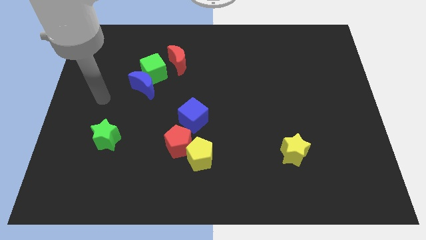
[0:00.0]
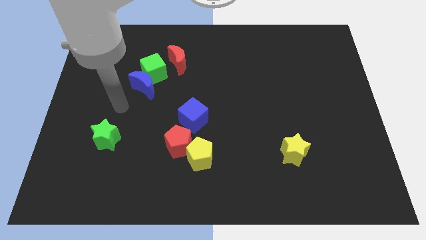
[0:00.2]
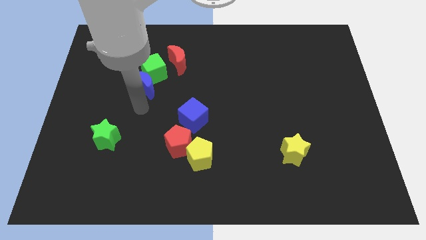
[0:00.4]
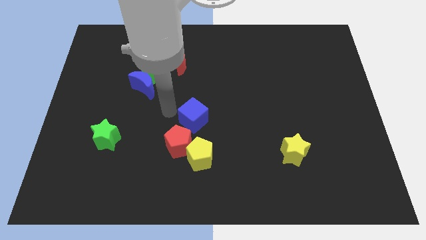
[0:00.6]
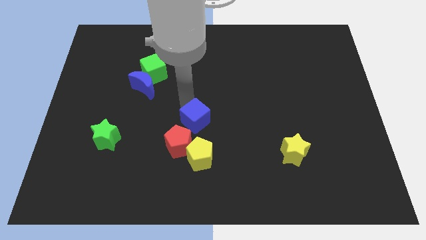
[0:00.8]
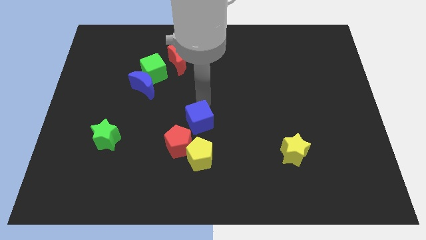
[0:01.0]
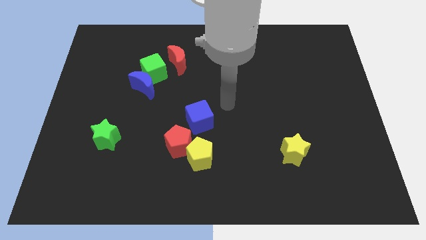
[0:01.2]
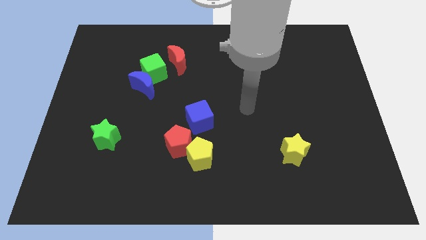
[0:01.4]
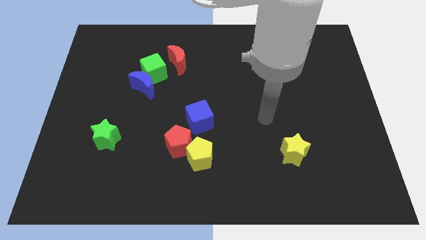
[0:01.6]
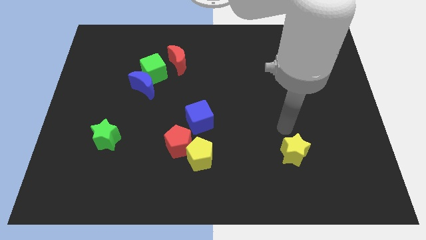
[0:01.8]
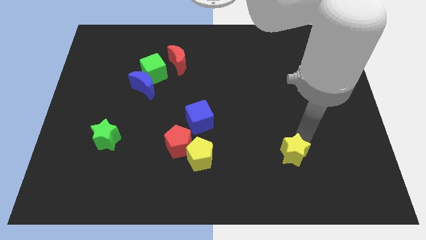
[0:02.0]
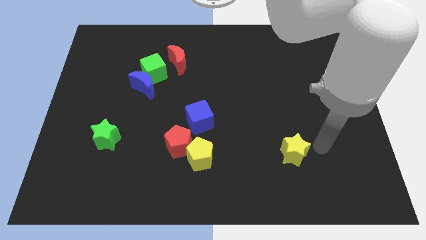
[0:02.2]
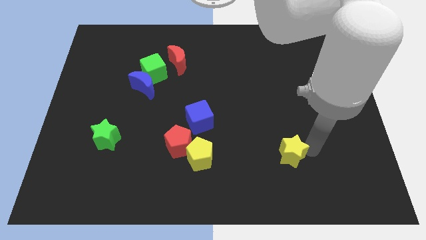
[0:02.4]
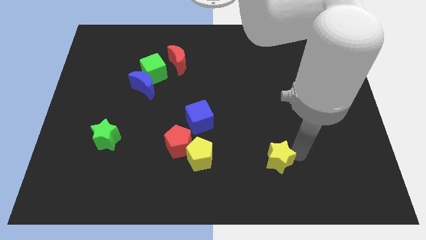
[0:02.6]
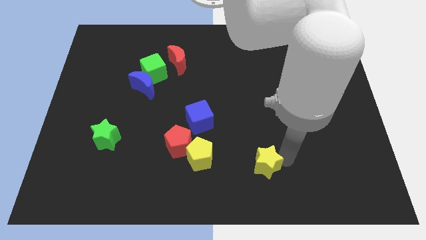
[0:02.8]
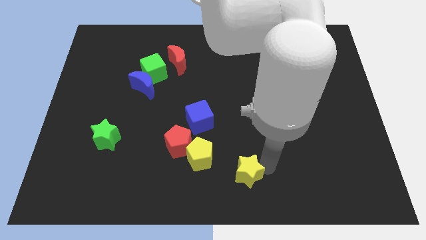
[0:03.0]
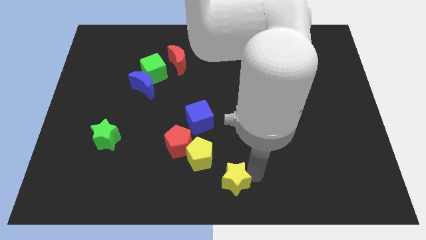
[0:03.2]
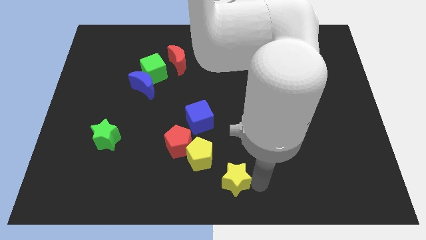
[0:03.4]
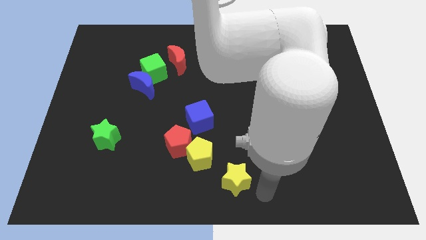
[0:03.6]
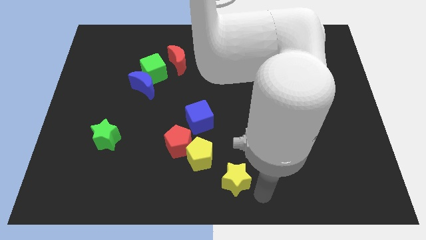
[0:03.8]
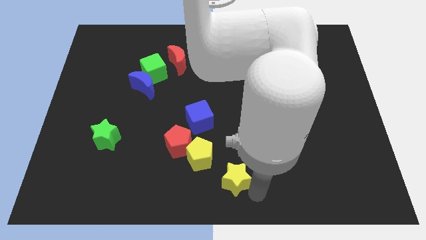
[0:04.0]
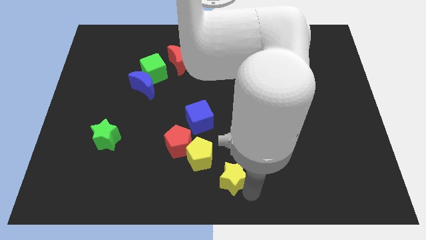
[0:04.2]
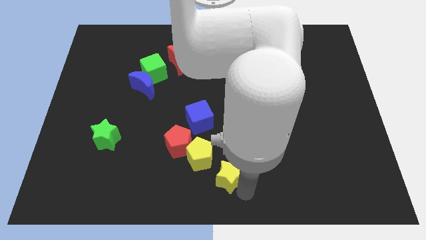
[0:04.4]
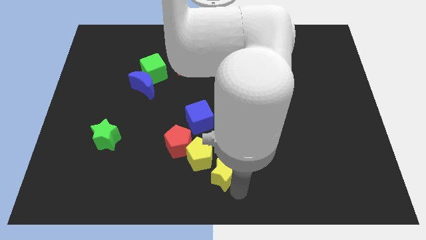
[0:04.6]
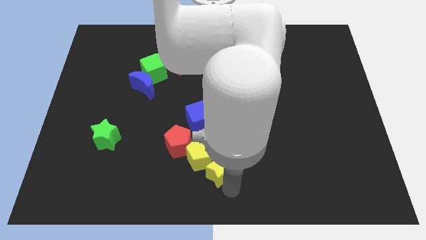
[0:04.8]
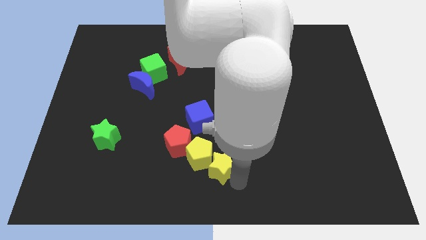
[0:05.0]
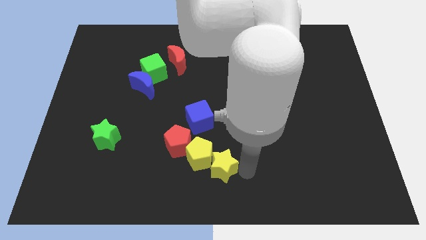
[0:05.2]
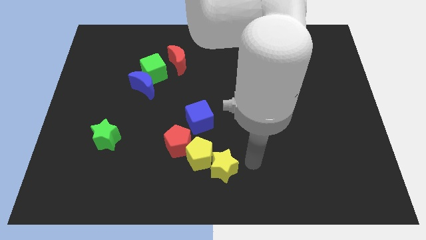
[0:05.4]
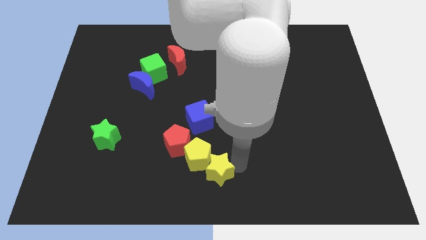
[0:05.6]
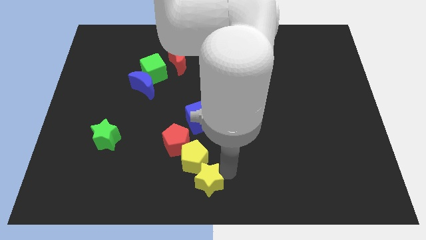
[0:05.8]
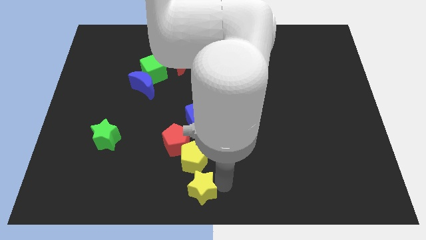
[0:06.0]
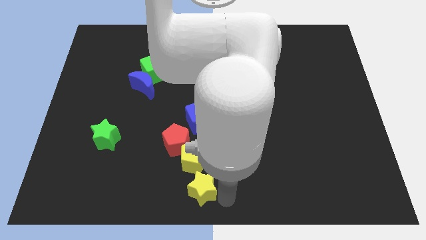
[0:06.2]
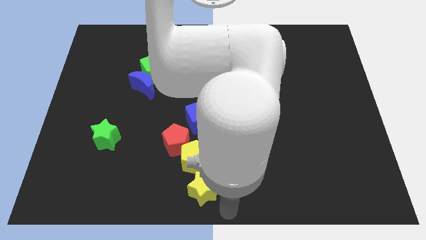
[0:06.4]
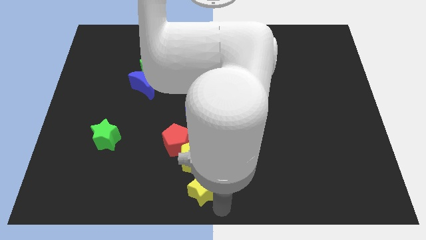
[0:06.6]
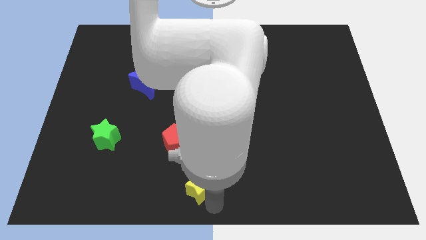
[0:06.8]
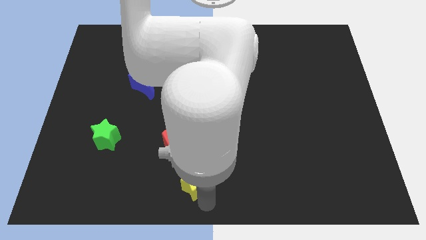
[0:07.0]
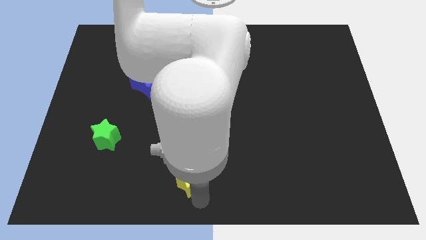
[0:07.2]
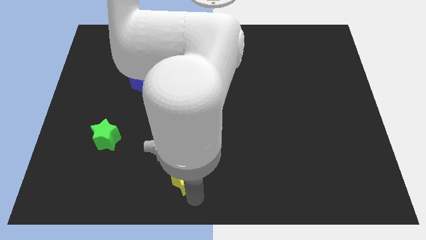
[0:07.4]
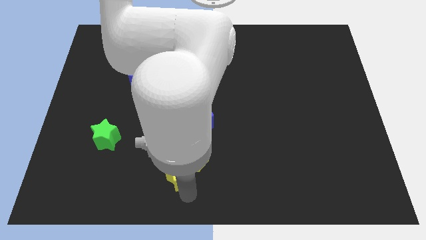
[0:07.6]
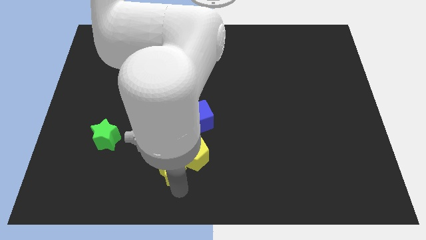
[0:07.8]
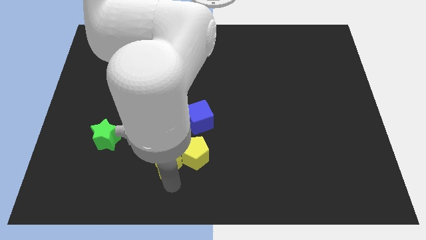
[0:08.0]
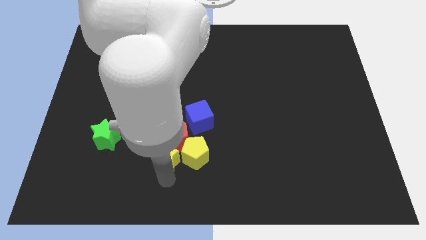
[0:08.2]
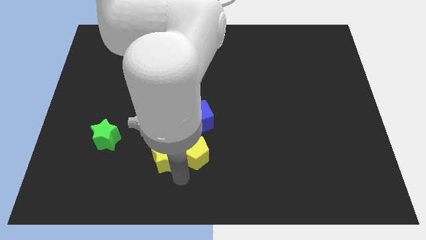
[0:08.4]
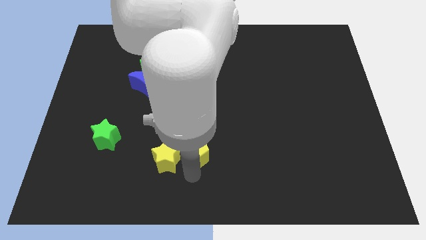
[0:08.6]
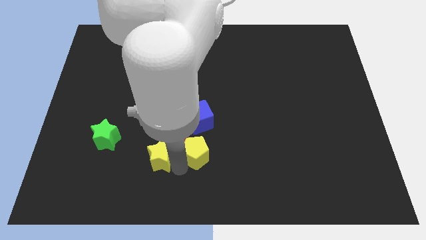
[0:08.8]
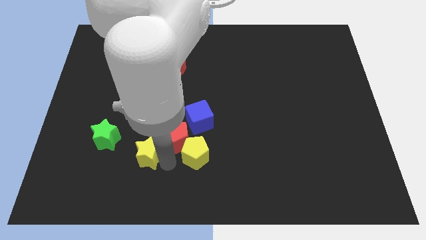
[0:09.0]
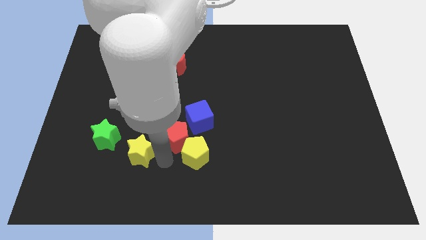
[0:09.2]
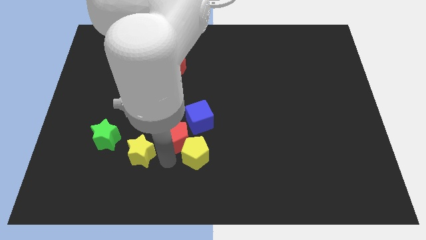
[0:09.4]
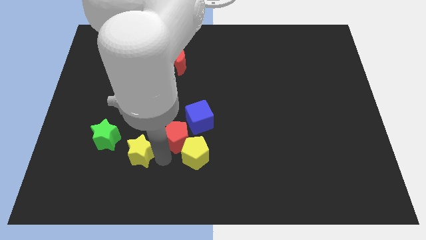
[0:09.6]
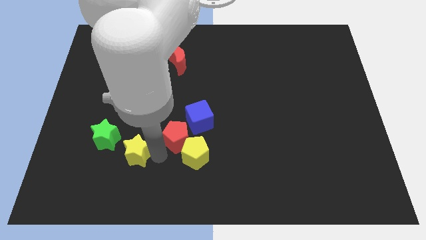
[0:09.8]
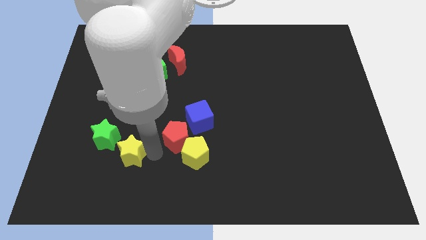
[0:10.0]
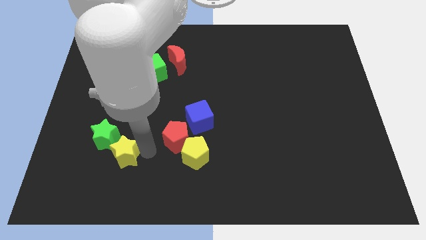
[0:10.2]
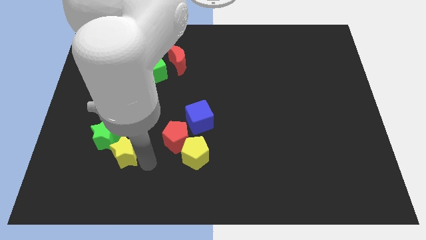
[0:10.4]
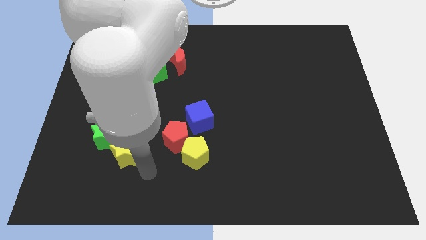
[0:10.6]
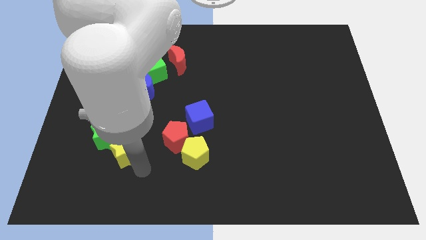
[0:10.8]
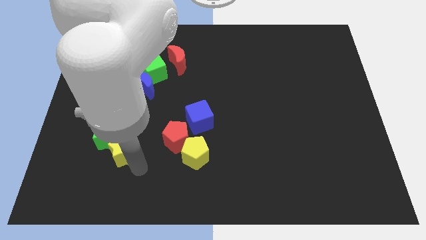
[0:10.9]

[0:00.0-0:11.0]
slide the yellow star to the green star

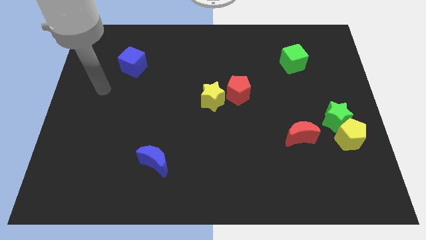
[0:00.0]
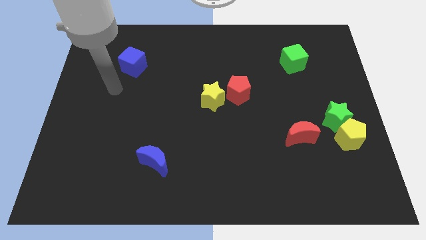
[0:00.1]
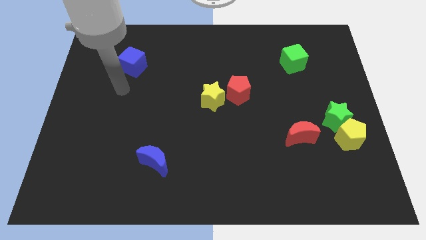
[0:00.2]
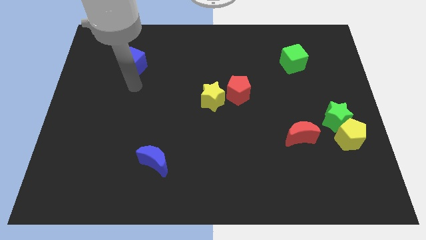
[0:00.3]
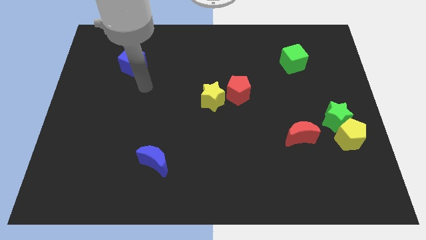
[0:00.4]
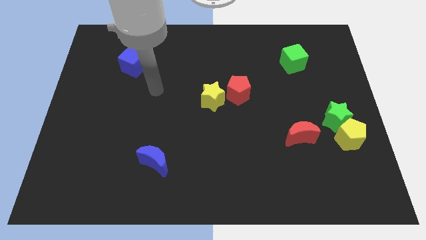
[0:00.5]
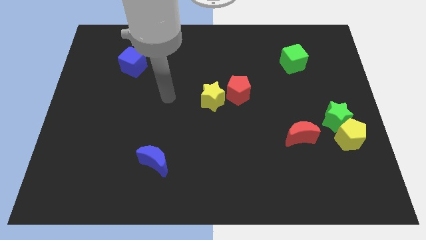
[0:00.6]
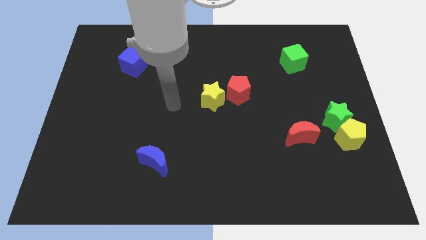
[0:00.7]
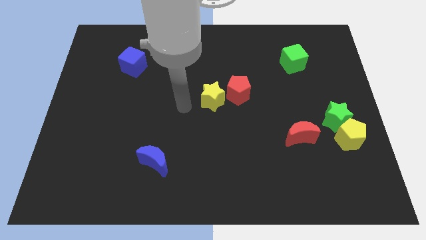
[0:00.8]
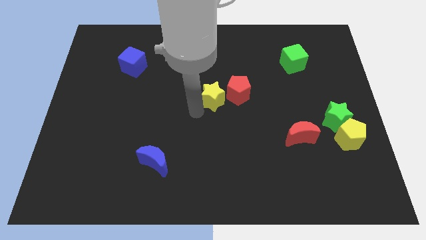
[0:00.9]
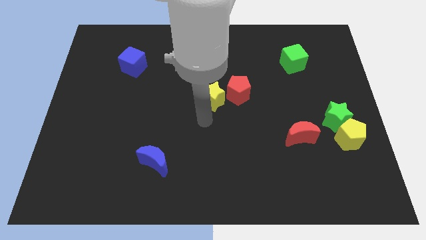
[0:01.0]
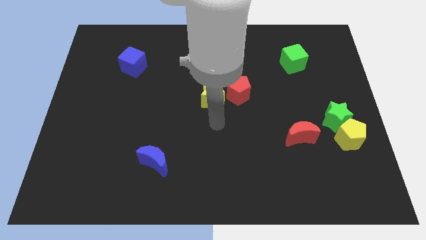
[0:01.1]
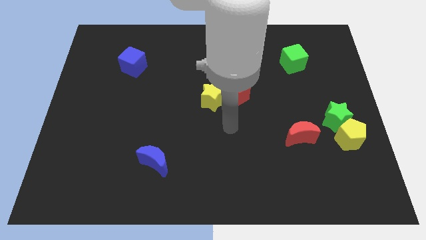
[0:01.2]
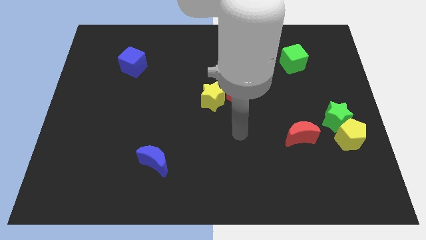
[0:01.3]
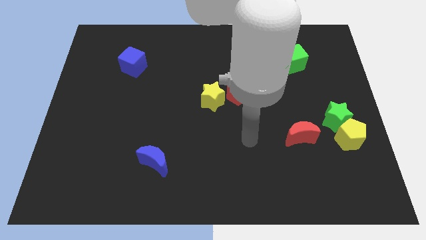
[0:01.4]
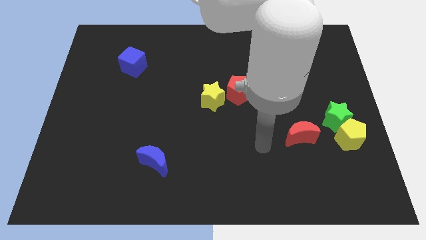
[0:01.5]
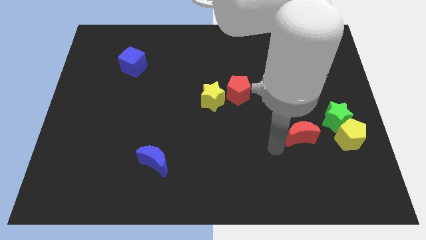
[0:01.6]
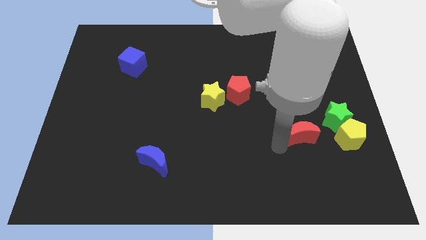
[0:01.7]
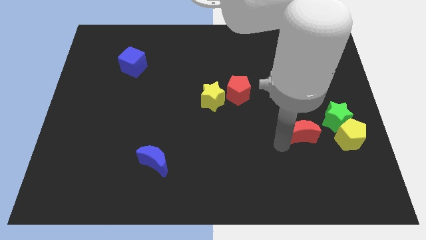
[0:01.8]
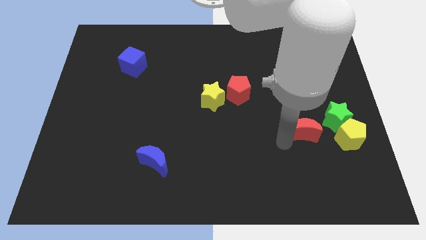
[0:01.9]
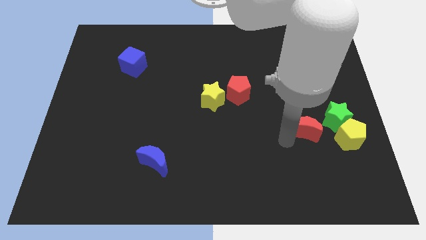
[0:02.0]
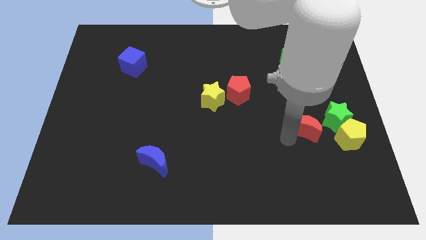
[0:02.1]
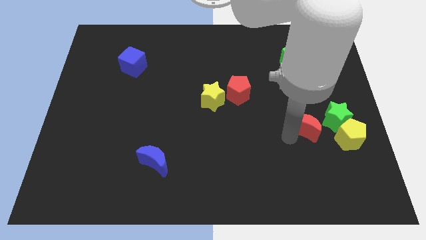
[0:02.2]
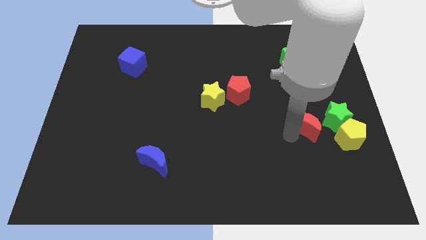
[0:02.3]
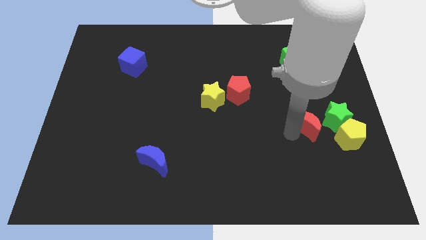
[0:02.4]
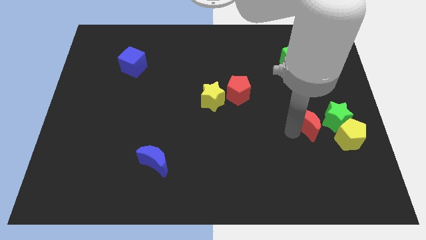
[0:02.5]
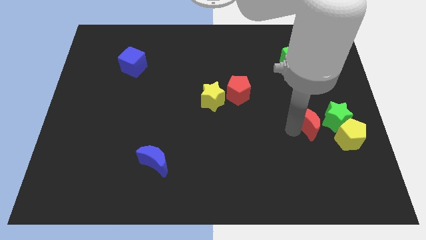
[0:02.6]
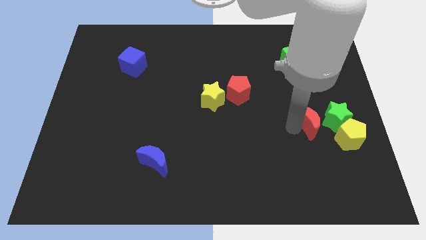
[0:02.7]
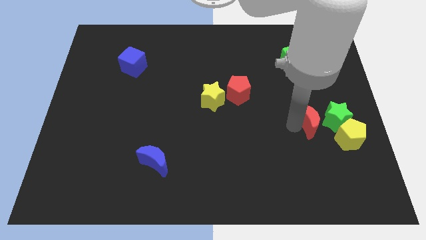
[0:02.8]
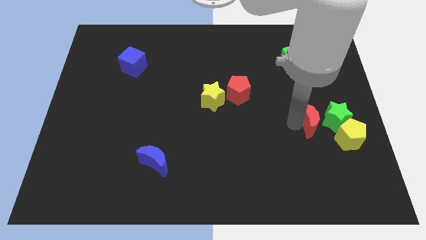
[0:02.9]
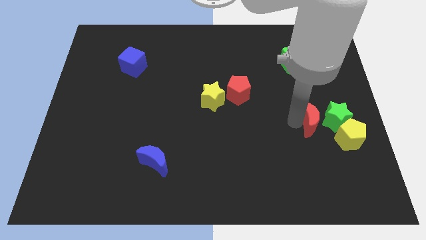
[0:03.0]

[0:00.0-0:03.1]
push the red moon to the green star
